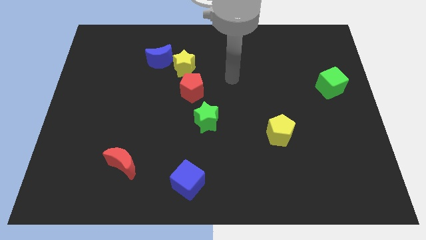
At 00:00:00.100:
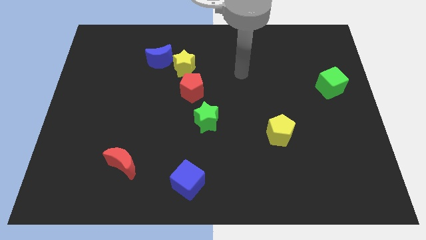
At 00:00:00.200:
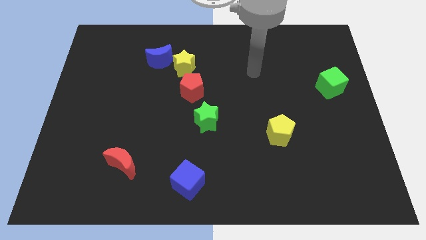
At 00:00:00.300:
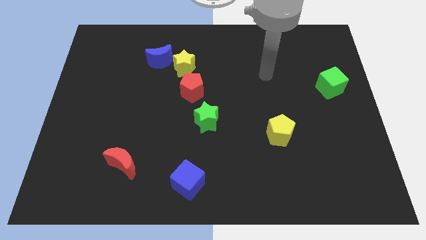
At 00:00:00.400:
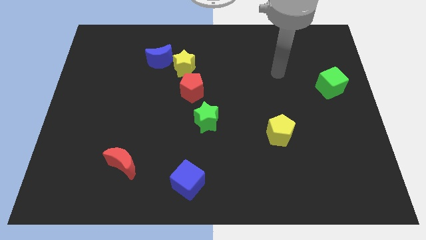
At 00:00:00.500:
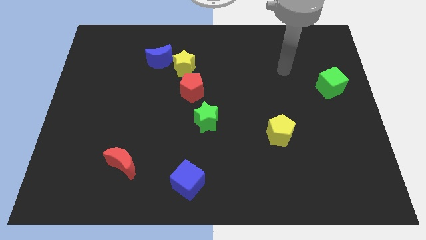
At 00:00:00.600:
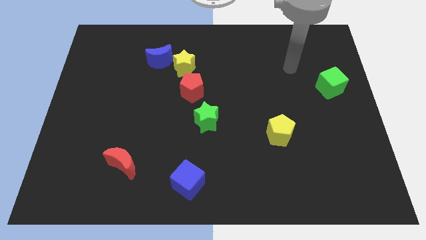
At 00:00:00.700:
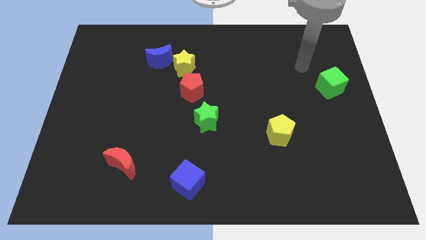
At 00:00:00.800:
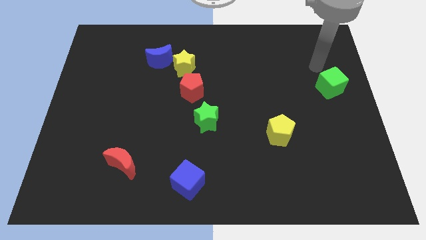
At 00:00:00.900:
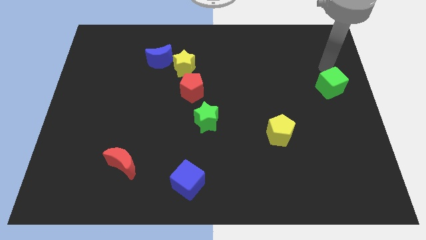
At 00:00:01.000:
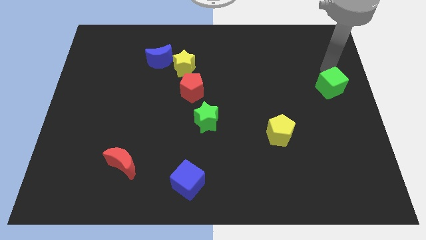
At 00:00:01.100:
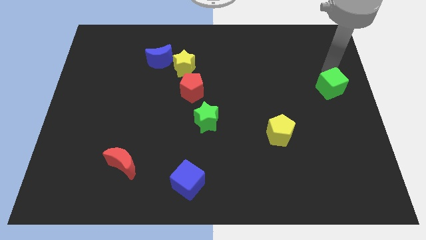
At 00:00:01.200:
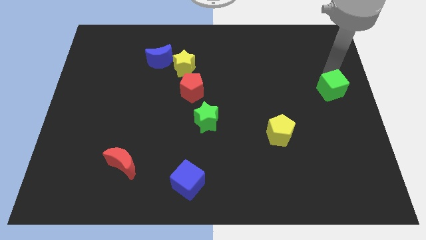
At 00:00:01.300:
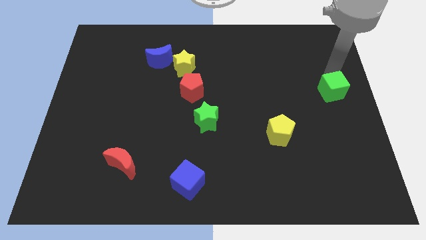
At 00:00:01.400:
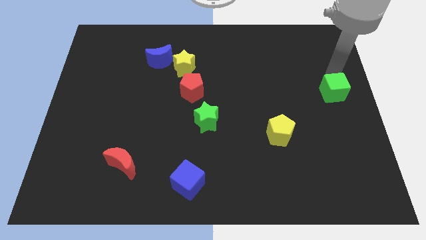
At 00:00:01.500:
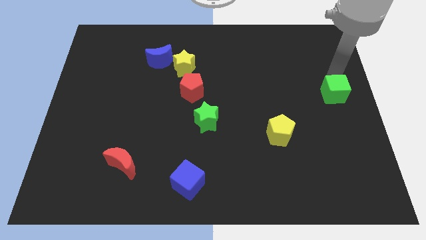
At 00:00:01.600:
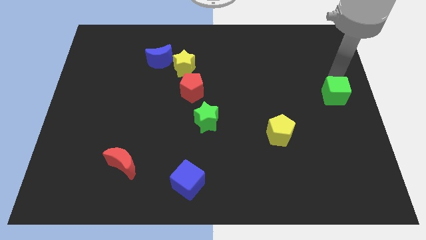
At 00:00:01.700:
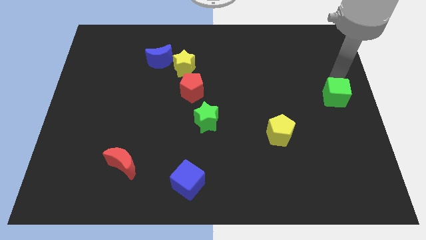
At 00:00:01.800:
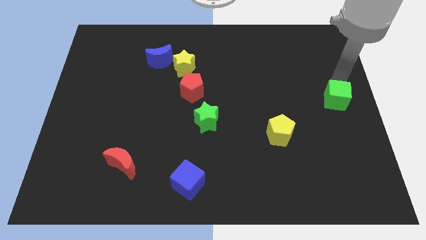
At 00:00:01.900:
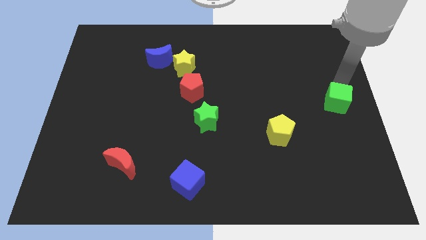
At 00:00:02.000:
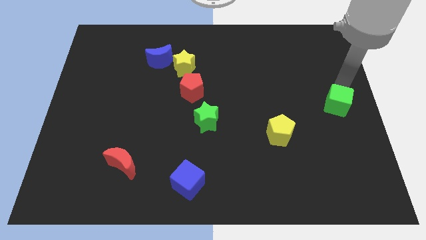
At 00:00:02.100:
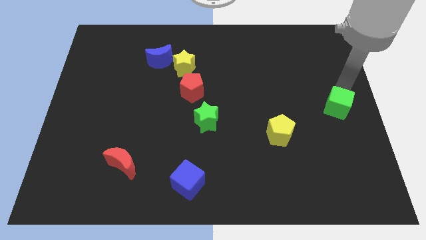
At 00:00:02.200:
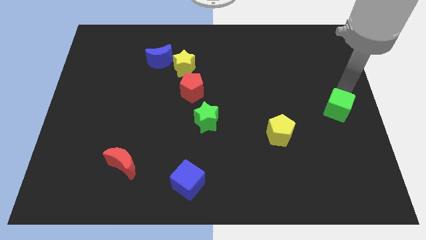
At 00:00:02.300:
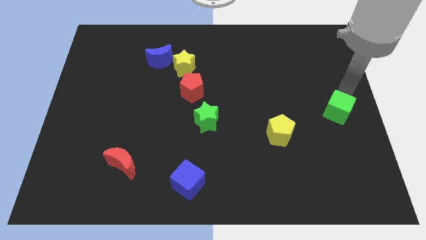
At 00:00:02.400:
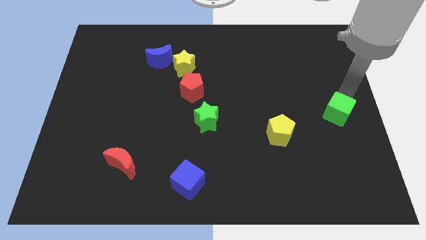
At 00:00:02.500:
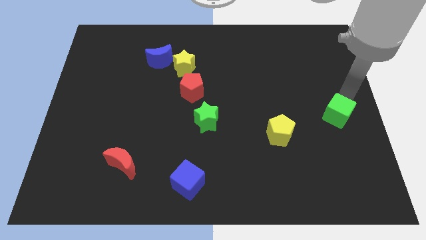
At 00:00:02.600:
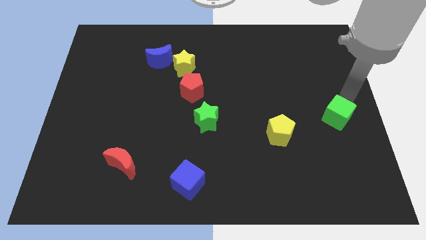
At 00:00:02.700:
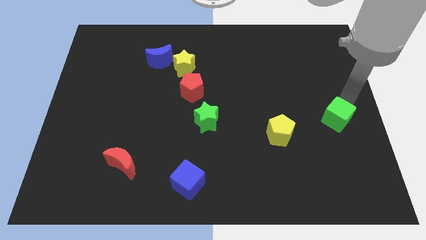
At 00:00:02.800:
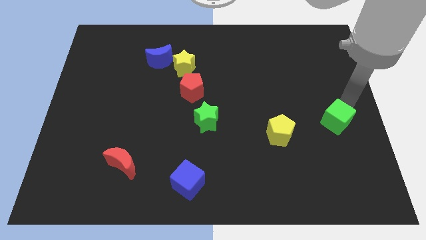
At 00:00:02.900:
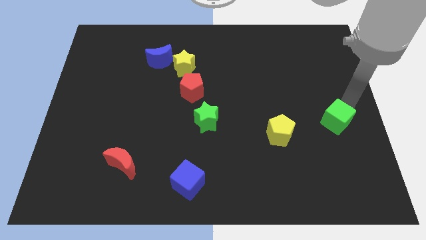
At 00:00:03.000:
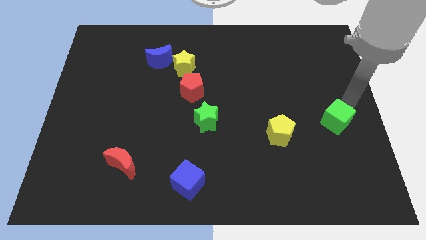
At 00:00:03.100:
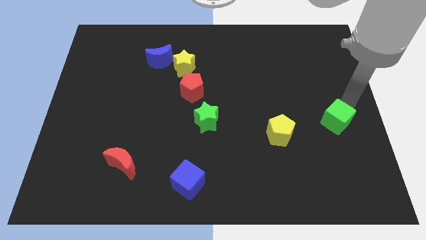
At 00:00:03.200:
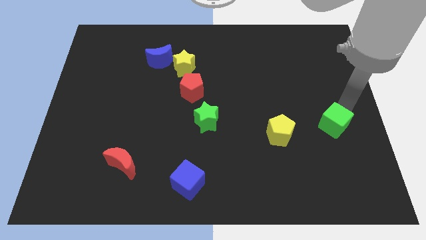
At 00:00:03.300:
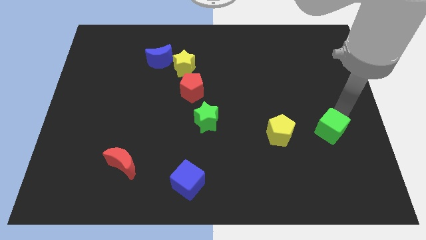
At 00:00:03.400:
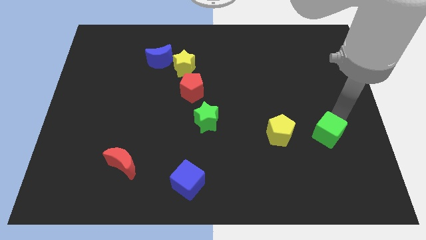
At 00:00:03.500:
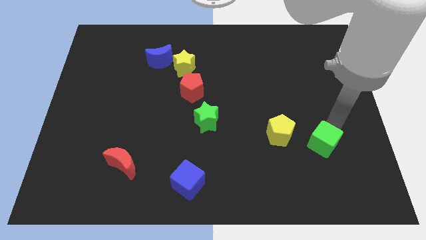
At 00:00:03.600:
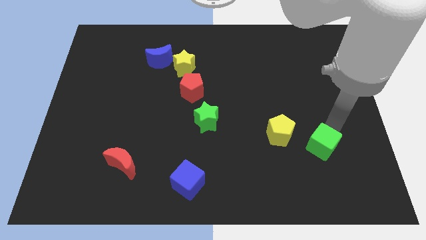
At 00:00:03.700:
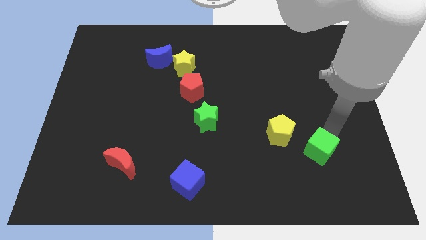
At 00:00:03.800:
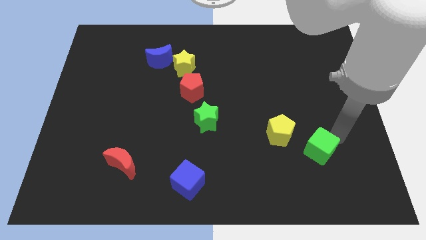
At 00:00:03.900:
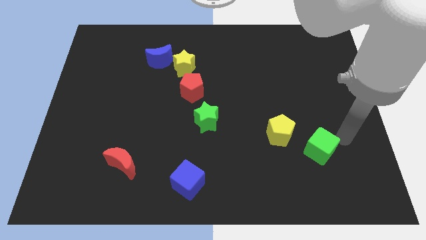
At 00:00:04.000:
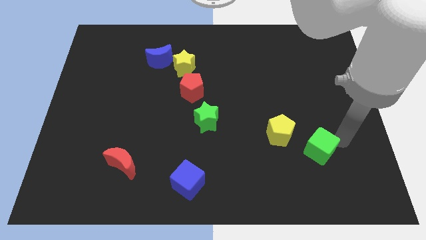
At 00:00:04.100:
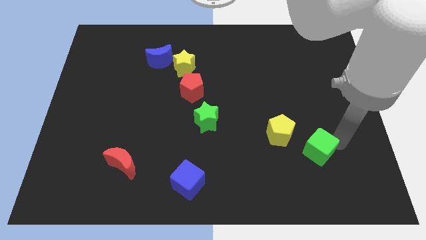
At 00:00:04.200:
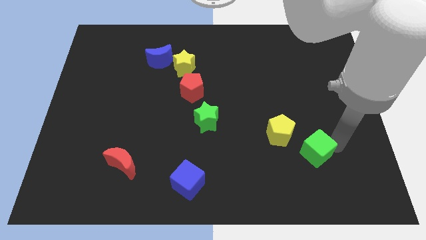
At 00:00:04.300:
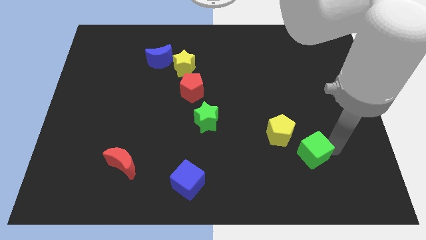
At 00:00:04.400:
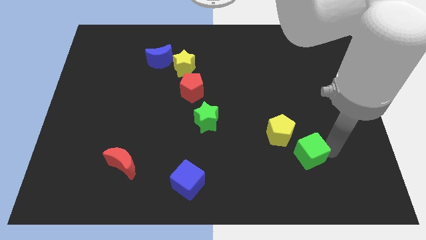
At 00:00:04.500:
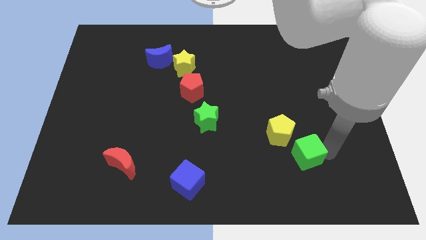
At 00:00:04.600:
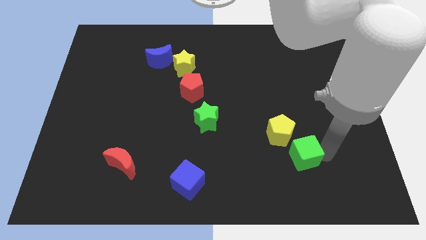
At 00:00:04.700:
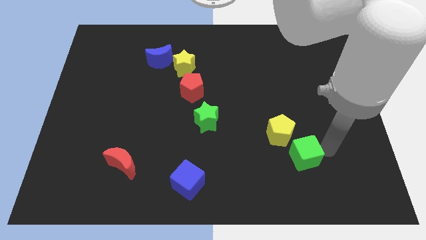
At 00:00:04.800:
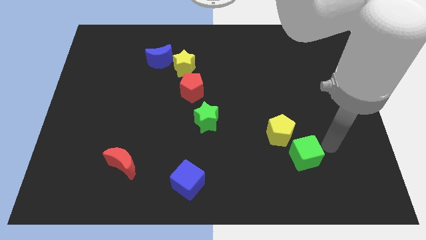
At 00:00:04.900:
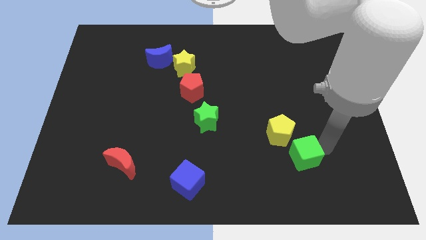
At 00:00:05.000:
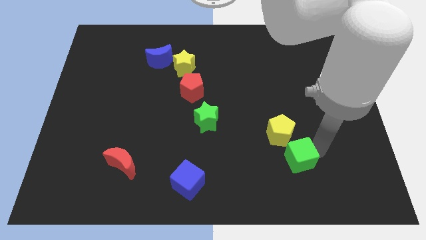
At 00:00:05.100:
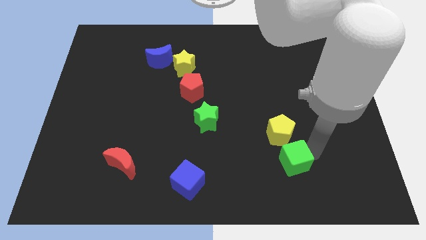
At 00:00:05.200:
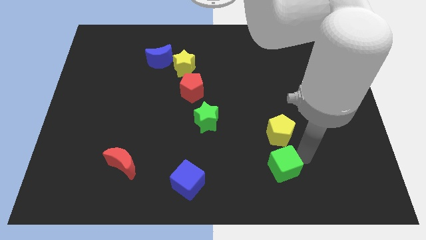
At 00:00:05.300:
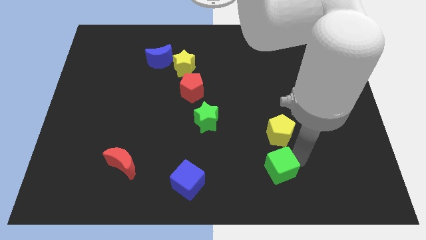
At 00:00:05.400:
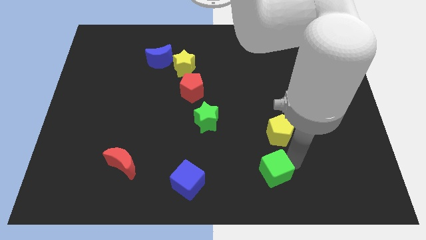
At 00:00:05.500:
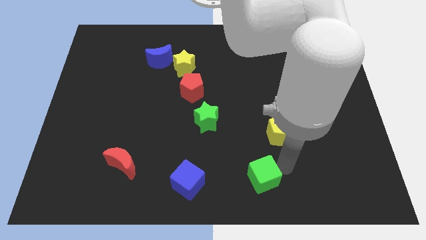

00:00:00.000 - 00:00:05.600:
push the green cube to the right side of the blue cube
